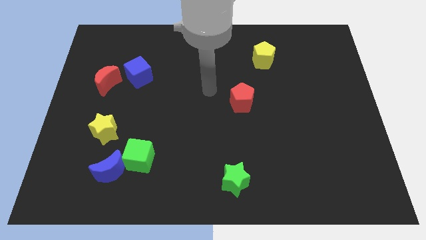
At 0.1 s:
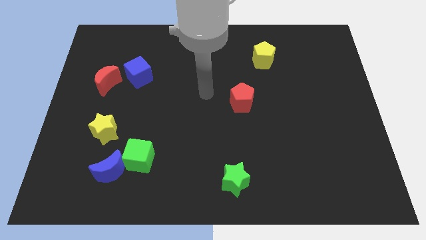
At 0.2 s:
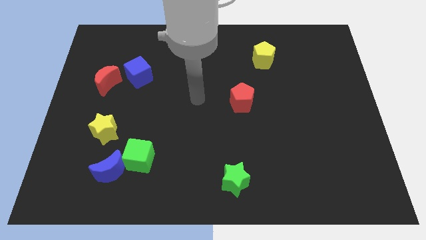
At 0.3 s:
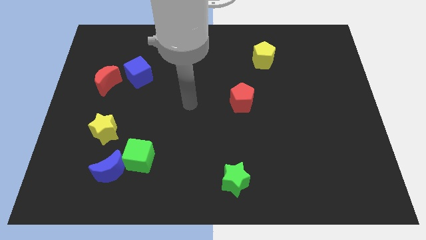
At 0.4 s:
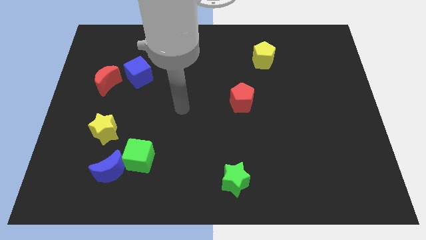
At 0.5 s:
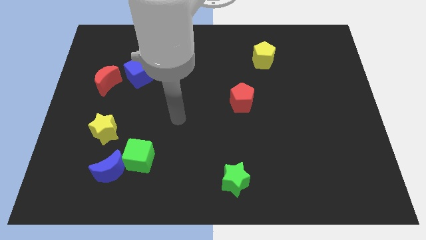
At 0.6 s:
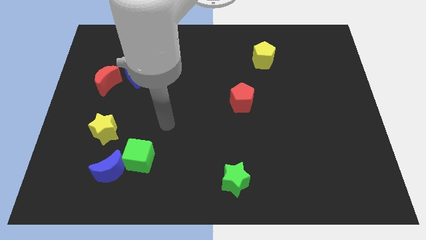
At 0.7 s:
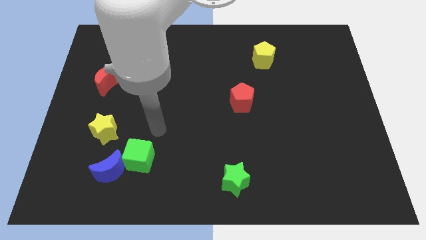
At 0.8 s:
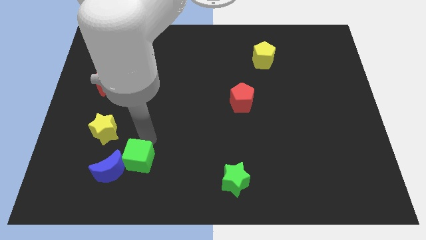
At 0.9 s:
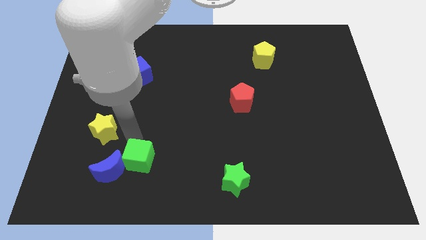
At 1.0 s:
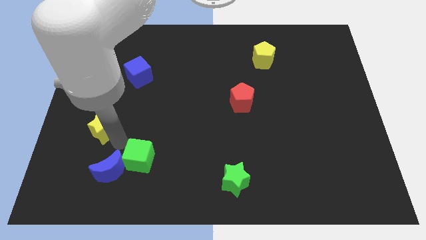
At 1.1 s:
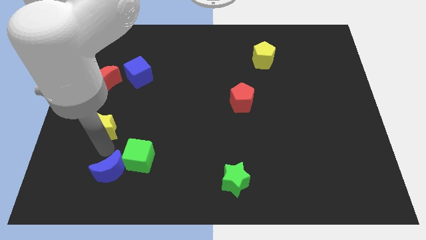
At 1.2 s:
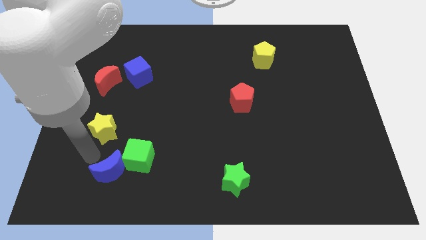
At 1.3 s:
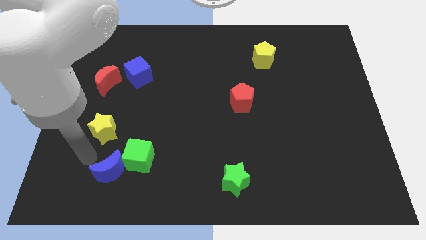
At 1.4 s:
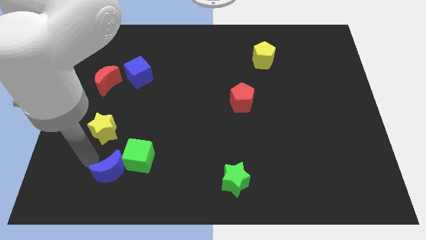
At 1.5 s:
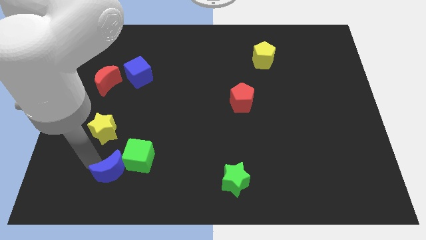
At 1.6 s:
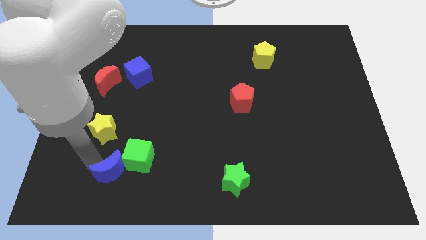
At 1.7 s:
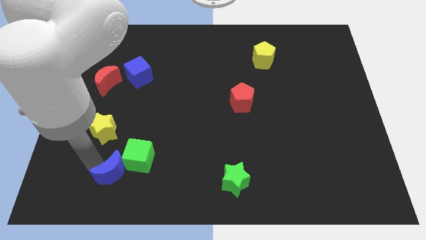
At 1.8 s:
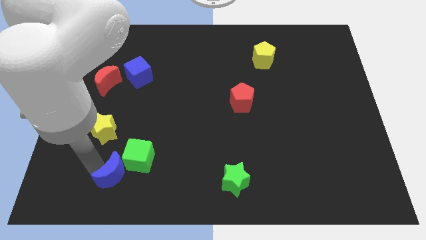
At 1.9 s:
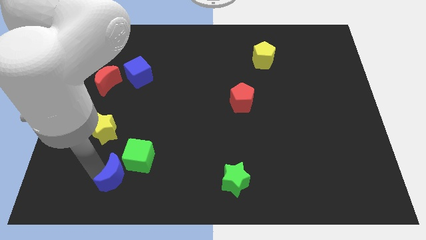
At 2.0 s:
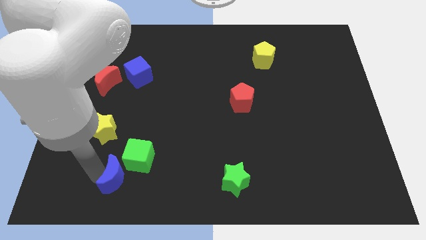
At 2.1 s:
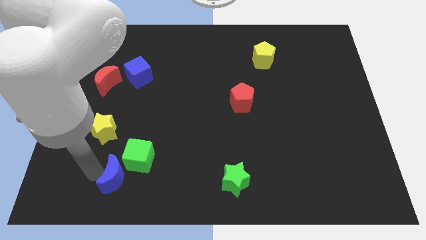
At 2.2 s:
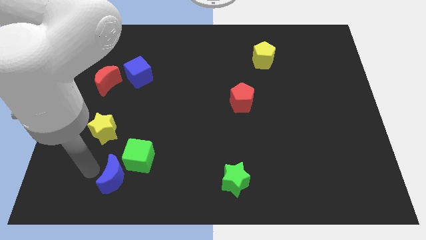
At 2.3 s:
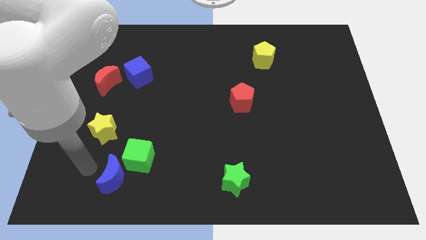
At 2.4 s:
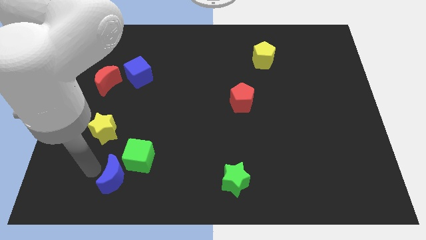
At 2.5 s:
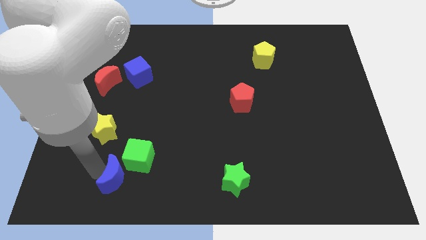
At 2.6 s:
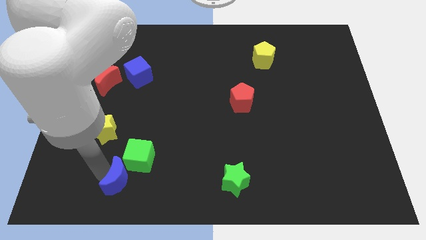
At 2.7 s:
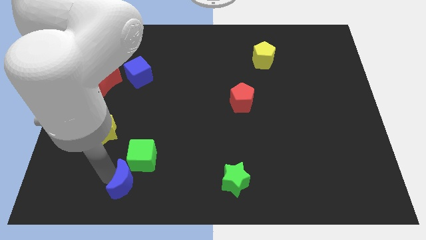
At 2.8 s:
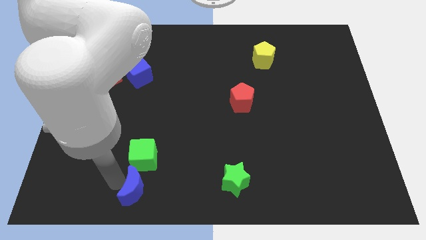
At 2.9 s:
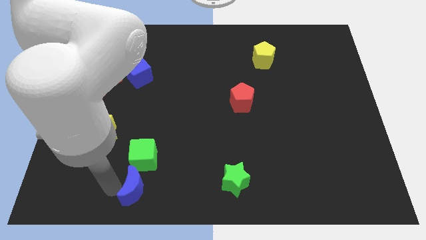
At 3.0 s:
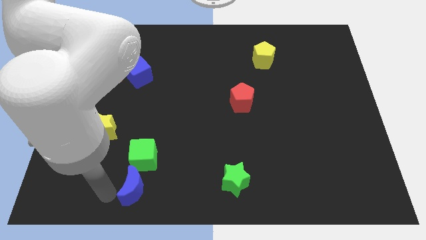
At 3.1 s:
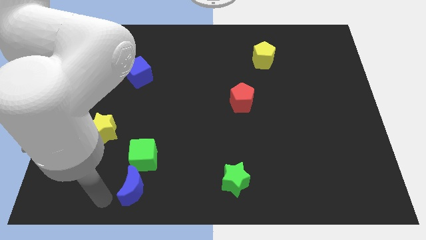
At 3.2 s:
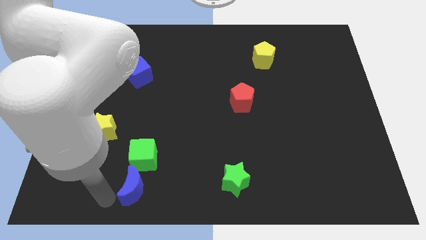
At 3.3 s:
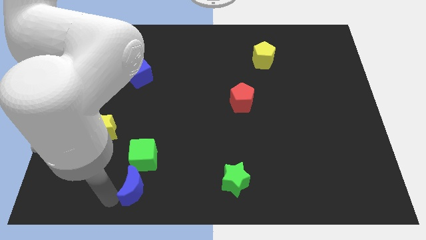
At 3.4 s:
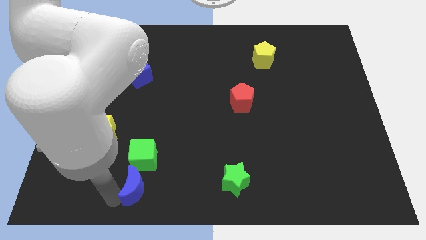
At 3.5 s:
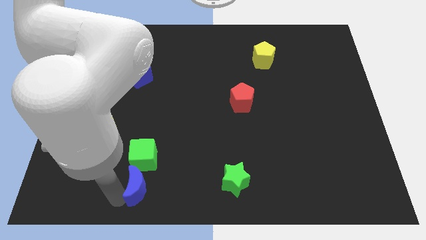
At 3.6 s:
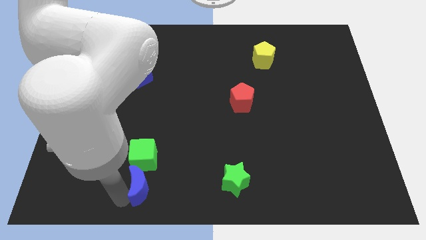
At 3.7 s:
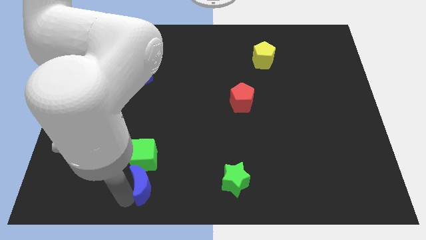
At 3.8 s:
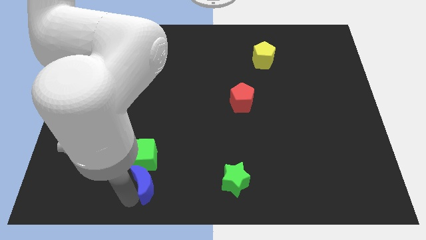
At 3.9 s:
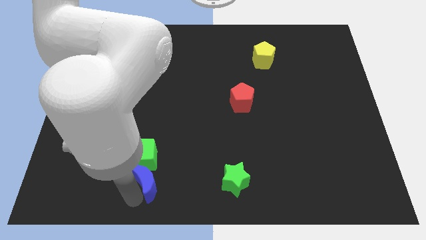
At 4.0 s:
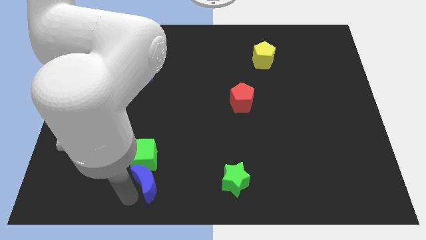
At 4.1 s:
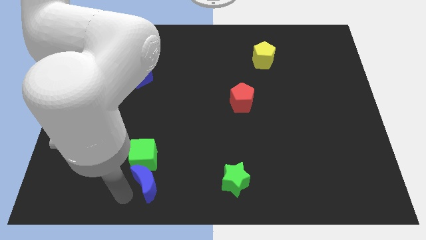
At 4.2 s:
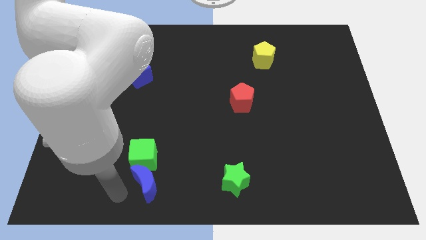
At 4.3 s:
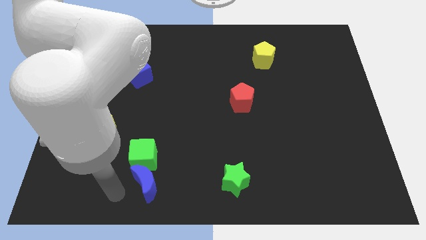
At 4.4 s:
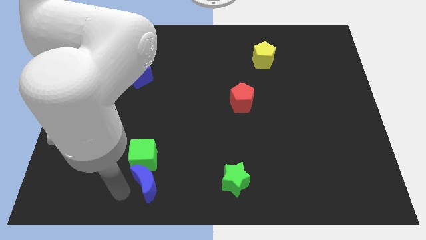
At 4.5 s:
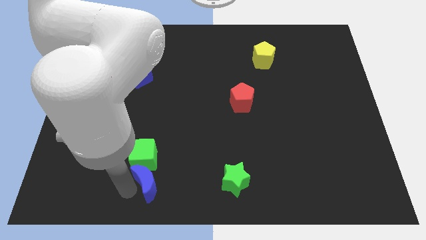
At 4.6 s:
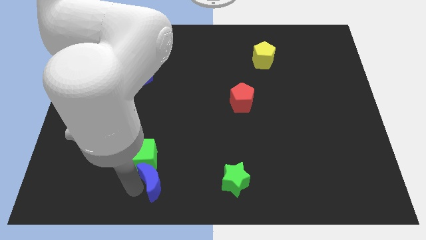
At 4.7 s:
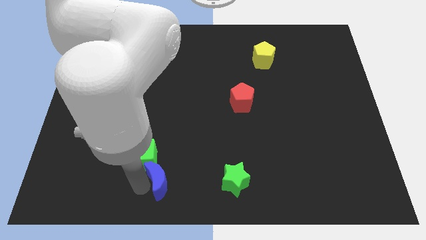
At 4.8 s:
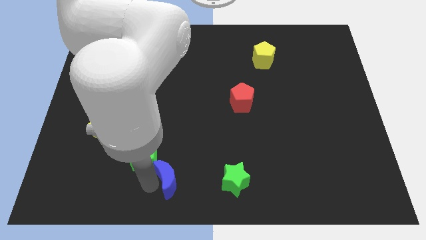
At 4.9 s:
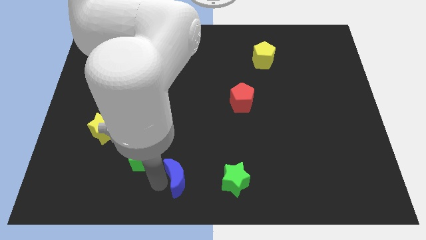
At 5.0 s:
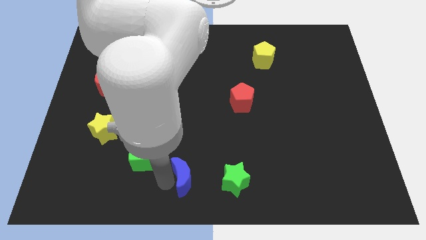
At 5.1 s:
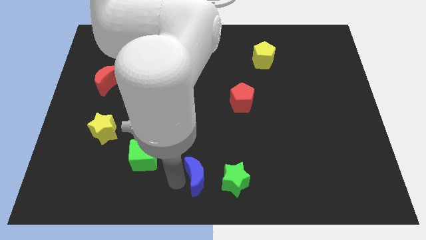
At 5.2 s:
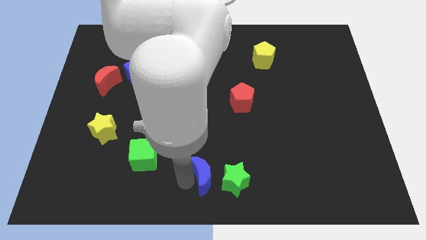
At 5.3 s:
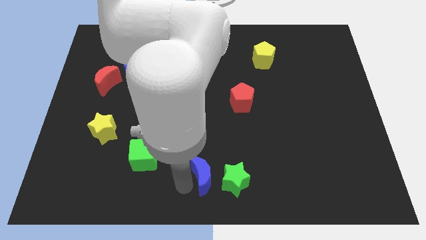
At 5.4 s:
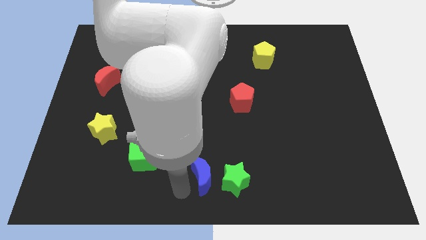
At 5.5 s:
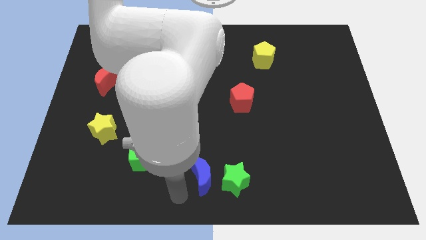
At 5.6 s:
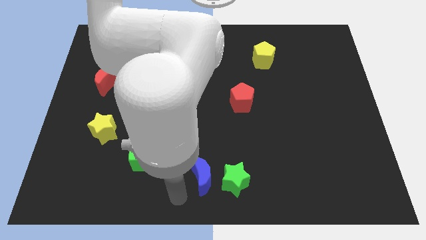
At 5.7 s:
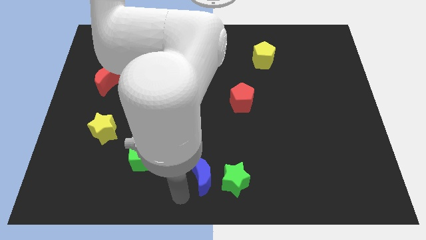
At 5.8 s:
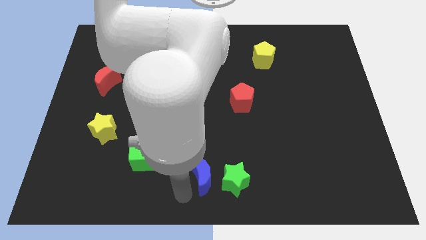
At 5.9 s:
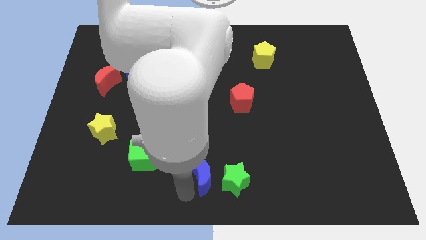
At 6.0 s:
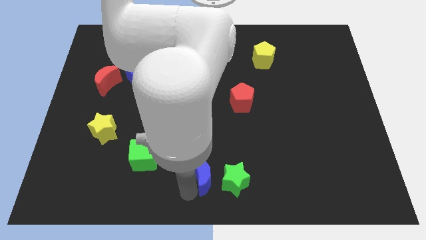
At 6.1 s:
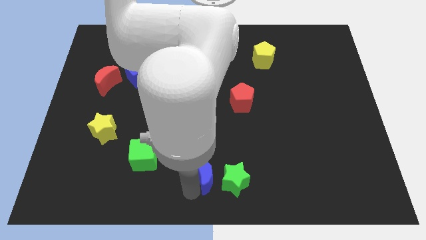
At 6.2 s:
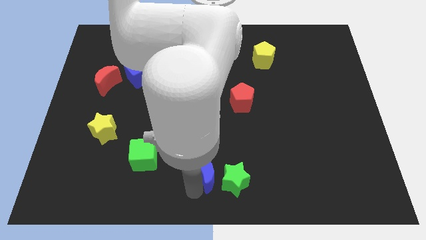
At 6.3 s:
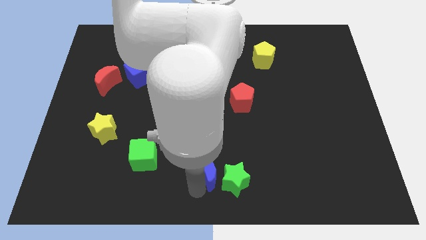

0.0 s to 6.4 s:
move the blue moon right

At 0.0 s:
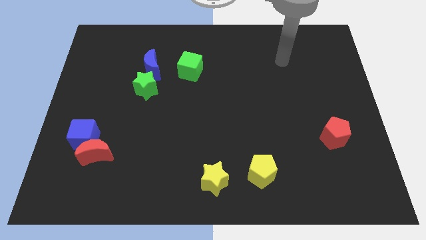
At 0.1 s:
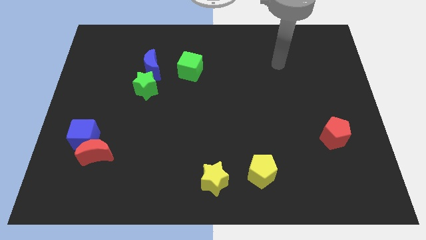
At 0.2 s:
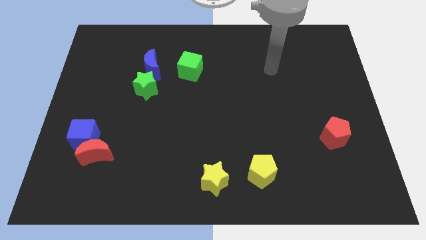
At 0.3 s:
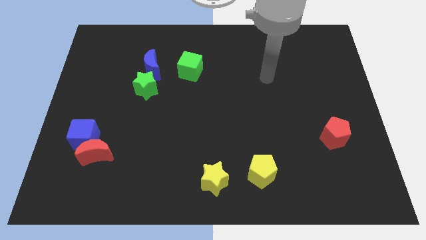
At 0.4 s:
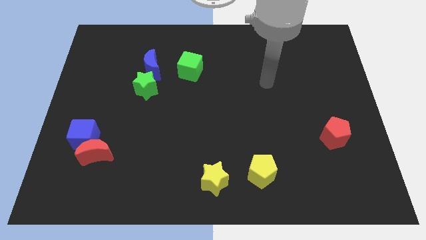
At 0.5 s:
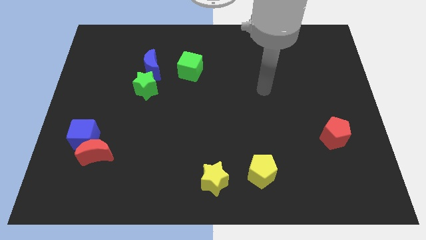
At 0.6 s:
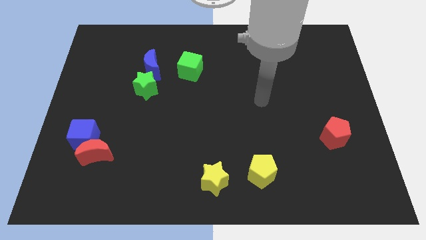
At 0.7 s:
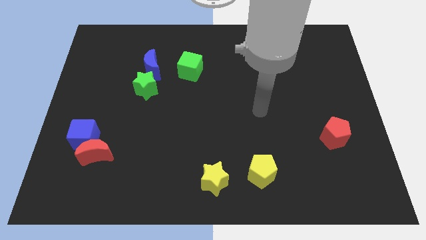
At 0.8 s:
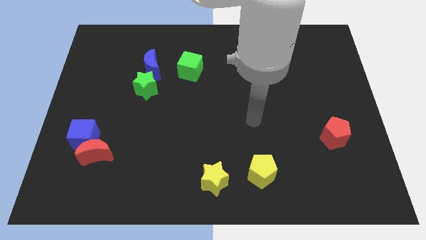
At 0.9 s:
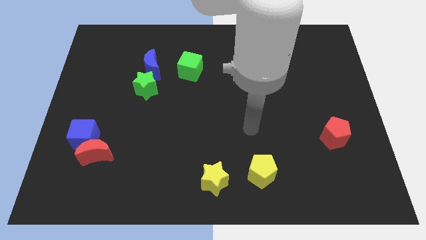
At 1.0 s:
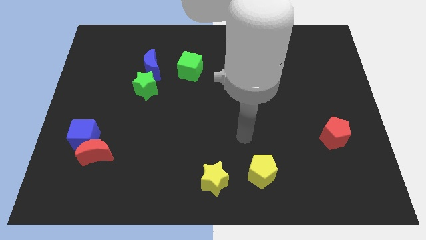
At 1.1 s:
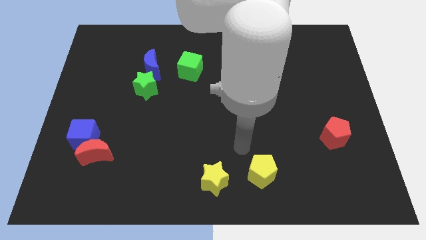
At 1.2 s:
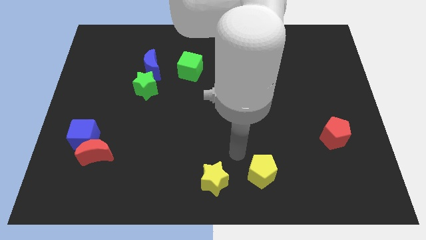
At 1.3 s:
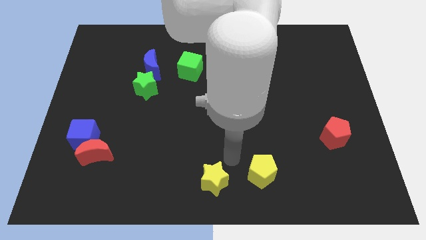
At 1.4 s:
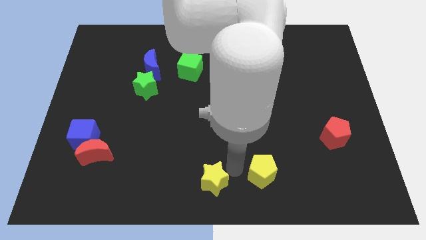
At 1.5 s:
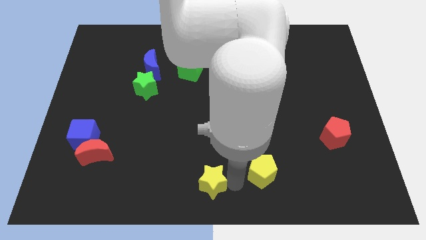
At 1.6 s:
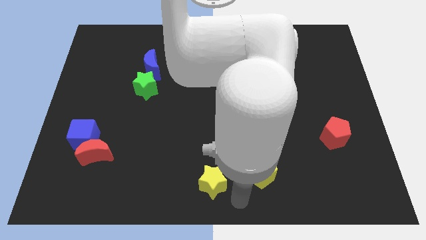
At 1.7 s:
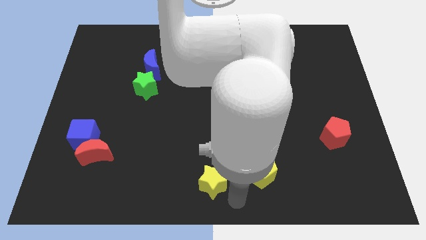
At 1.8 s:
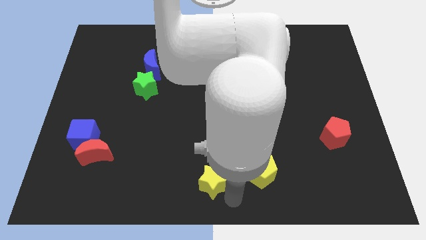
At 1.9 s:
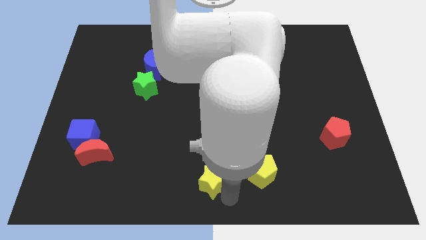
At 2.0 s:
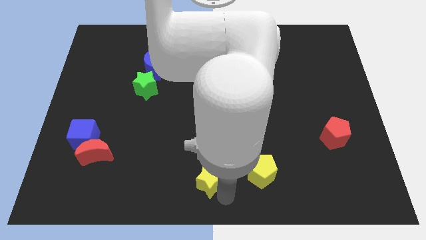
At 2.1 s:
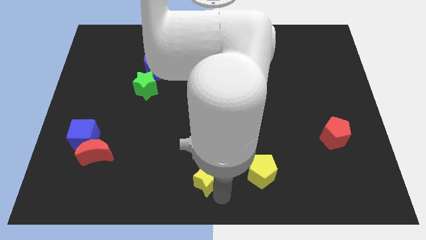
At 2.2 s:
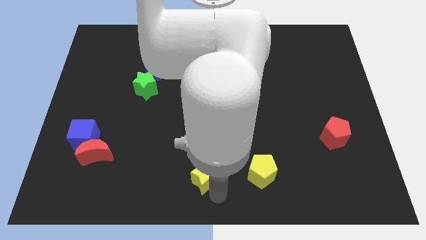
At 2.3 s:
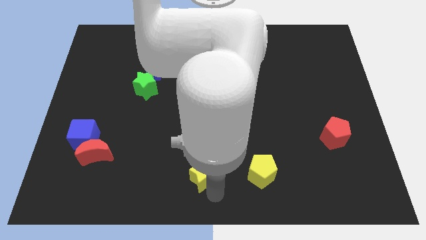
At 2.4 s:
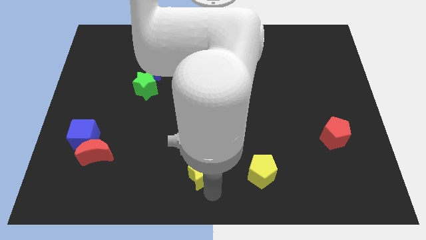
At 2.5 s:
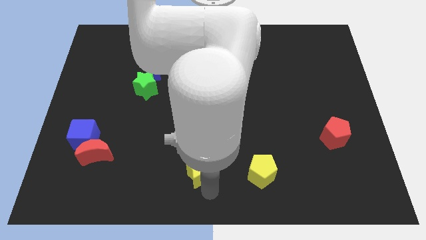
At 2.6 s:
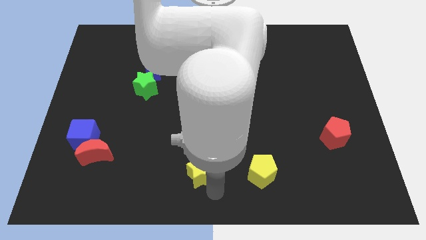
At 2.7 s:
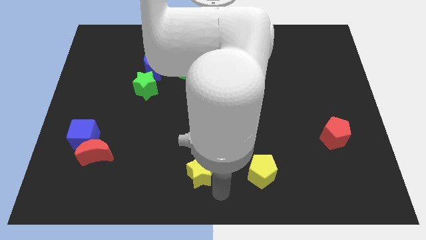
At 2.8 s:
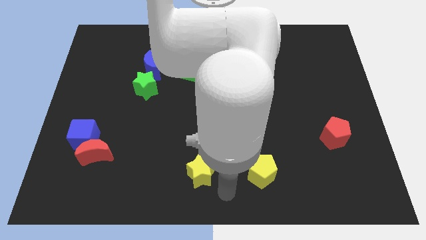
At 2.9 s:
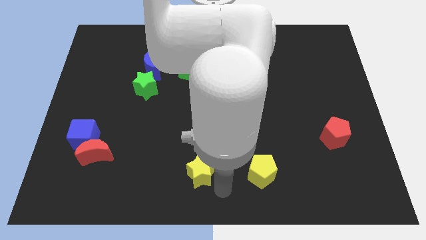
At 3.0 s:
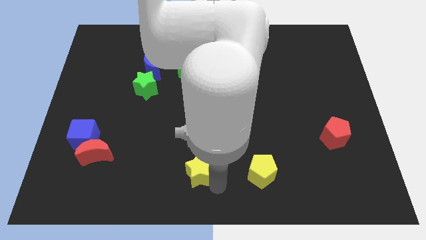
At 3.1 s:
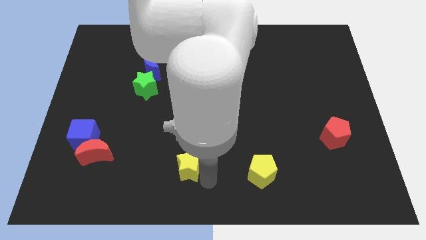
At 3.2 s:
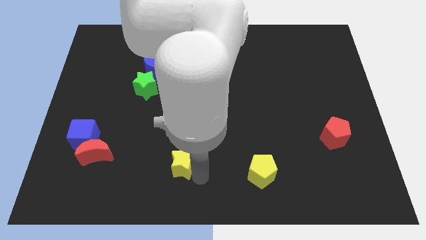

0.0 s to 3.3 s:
slightly push the yellow star up and then left
